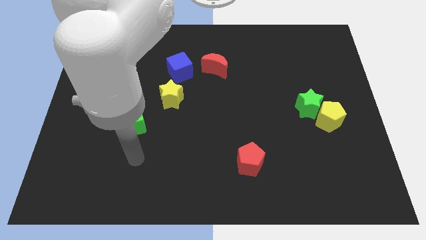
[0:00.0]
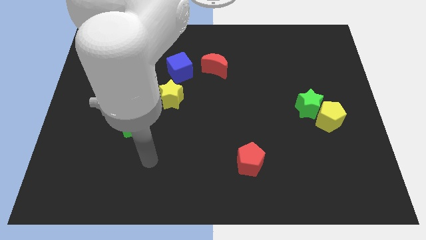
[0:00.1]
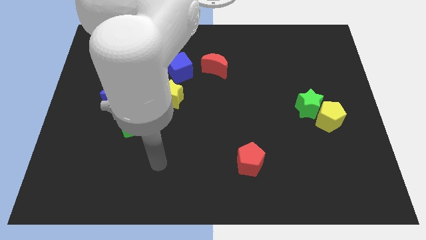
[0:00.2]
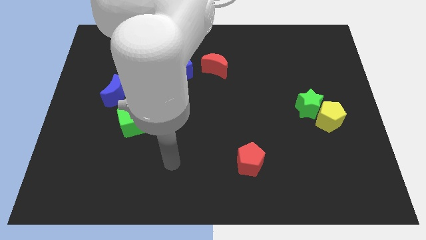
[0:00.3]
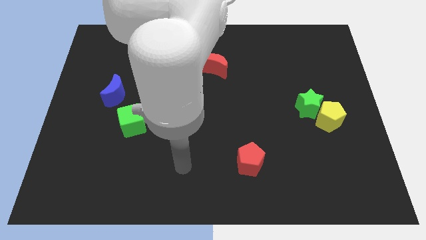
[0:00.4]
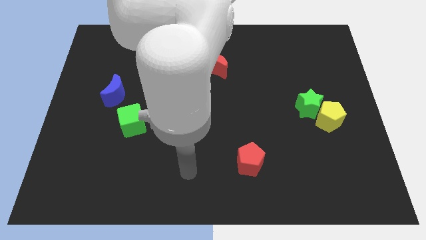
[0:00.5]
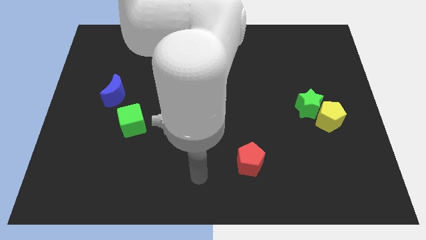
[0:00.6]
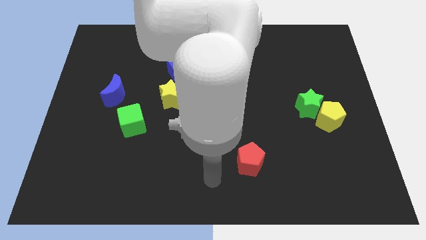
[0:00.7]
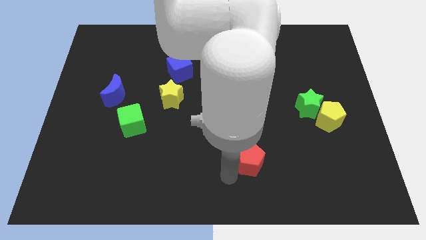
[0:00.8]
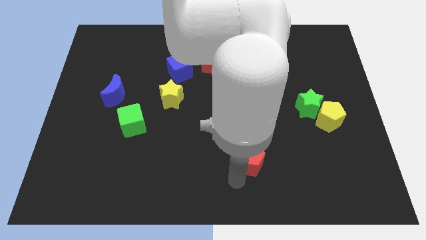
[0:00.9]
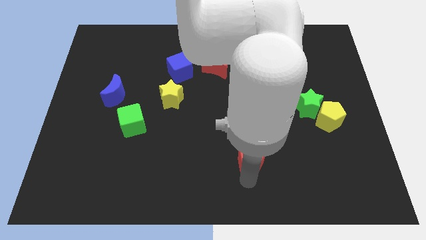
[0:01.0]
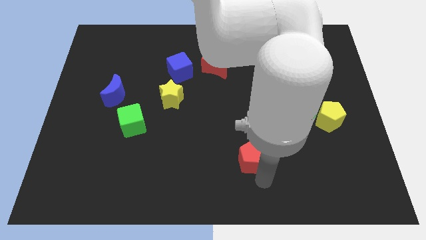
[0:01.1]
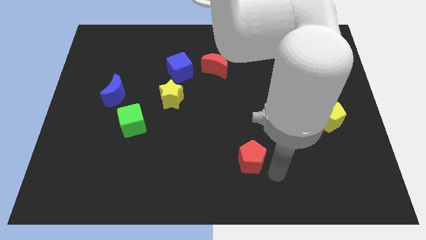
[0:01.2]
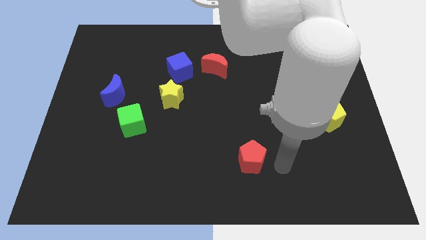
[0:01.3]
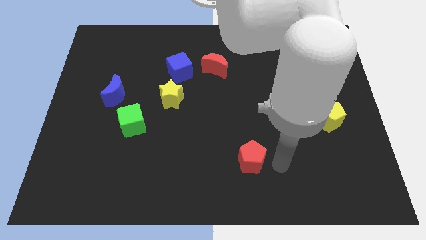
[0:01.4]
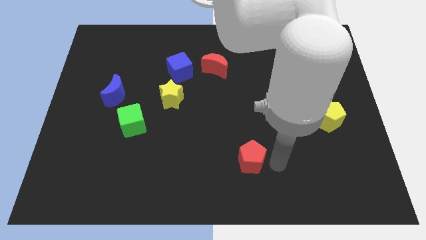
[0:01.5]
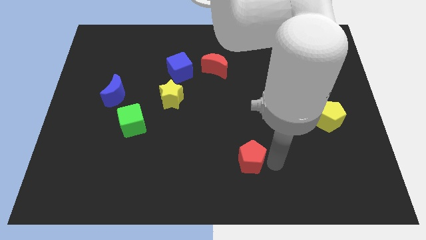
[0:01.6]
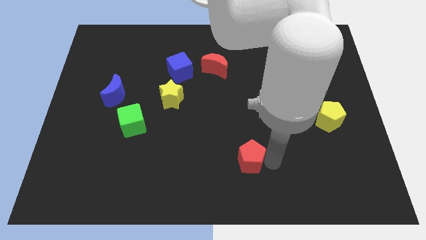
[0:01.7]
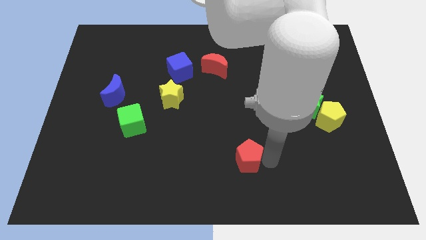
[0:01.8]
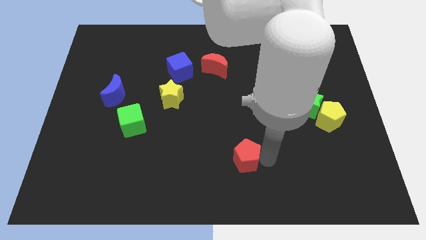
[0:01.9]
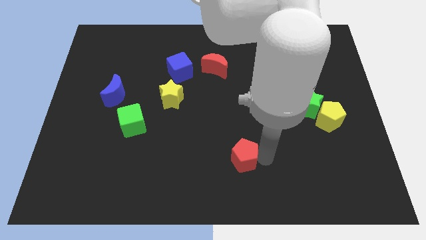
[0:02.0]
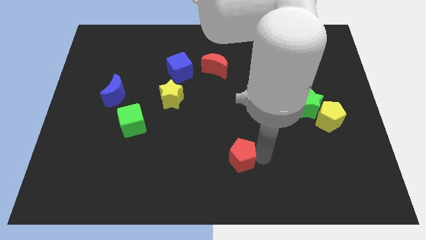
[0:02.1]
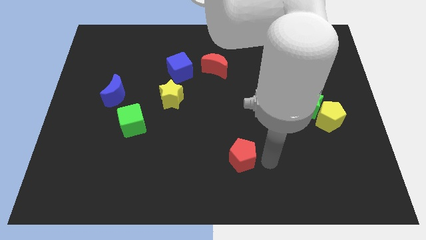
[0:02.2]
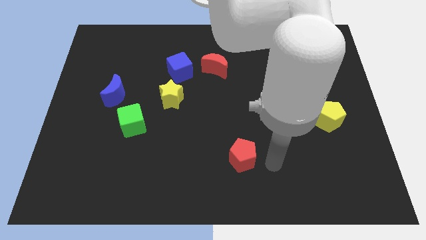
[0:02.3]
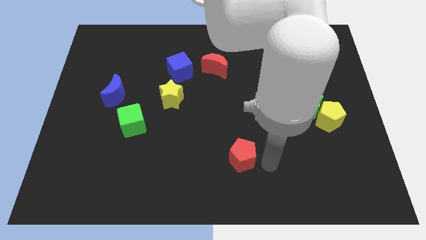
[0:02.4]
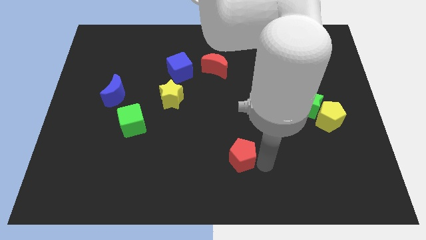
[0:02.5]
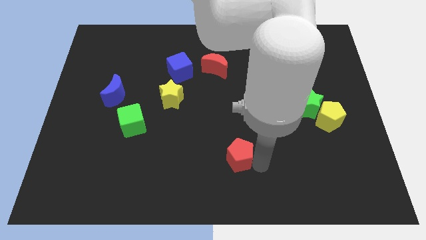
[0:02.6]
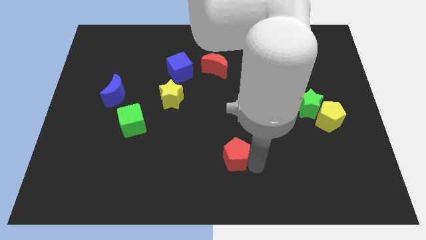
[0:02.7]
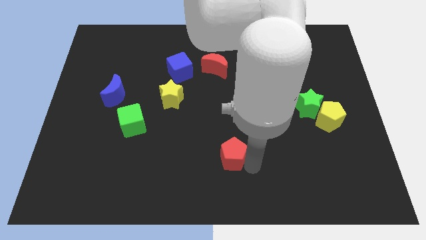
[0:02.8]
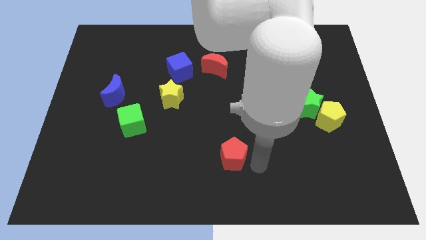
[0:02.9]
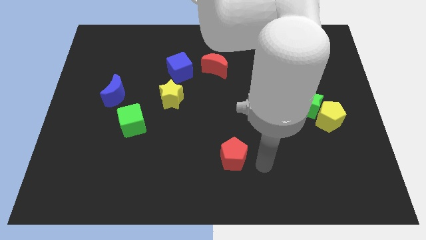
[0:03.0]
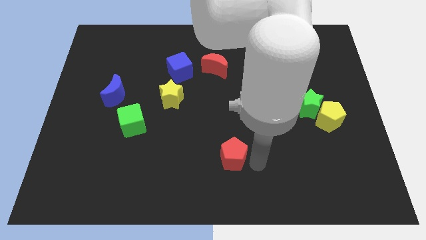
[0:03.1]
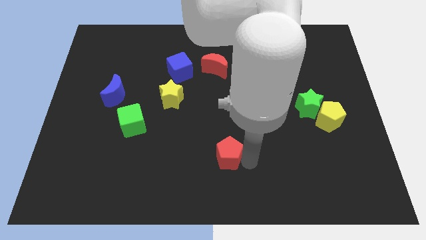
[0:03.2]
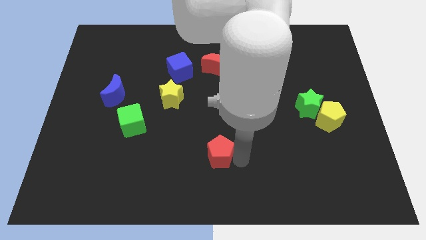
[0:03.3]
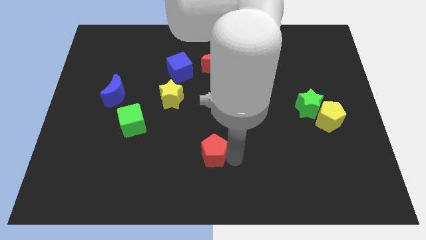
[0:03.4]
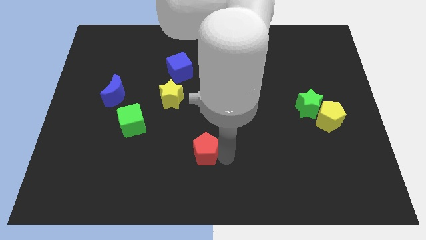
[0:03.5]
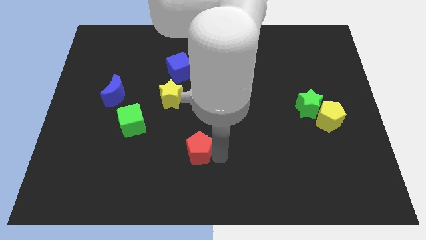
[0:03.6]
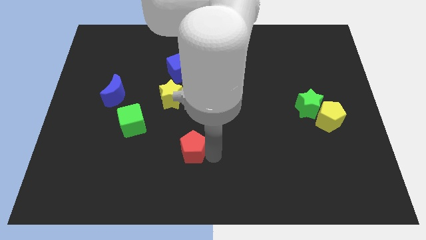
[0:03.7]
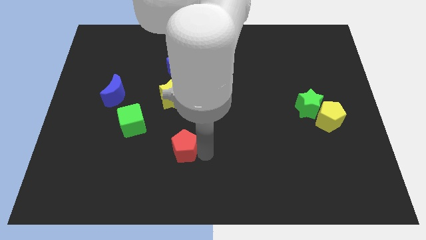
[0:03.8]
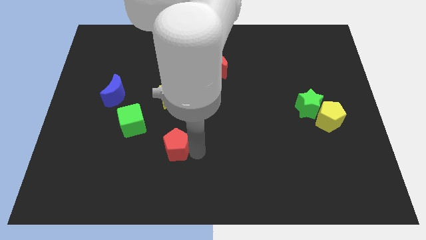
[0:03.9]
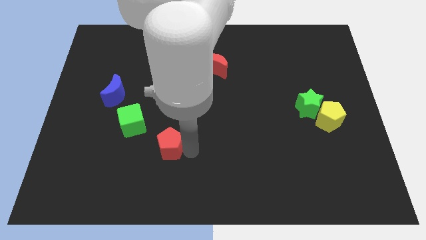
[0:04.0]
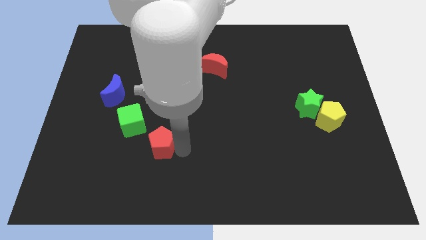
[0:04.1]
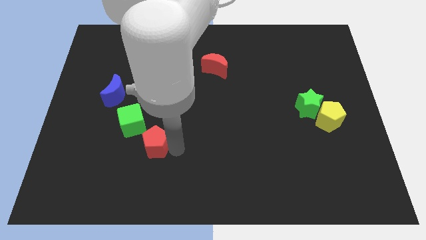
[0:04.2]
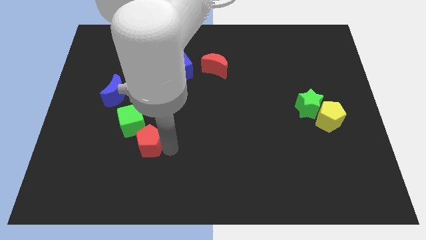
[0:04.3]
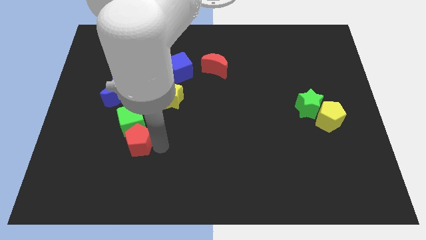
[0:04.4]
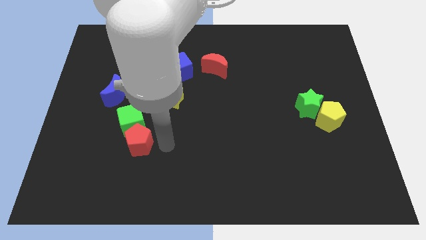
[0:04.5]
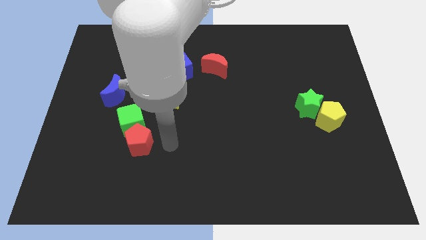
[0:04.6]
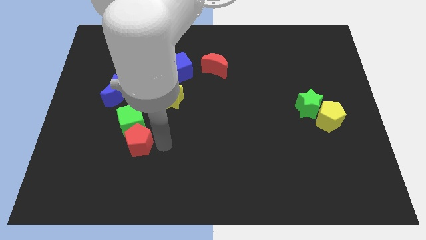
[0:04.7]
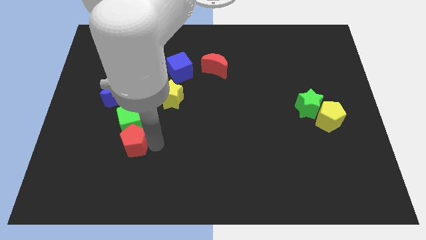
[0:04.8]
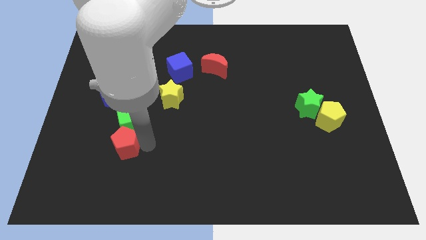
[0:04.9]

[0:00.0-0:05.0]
put the red pentagon diagonally down and to the left of the green cube

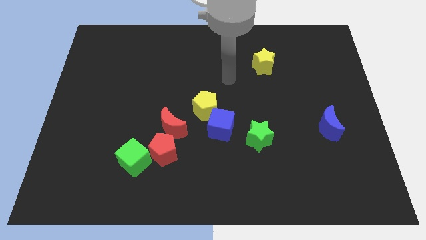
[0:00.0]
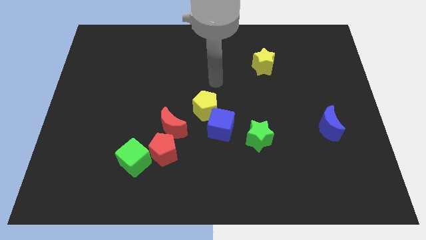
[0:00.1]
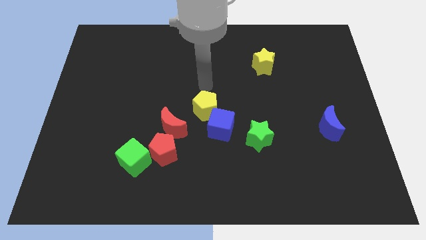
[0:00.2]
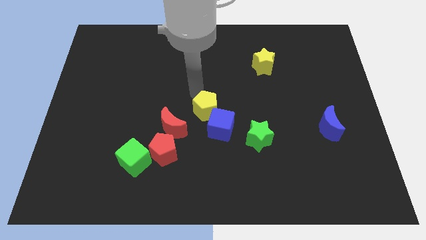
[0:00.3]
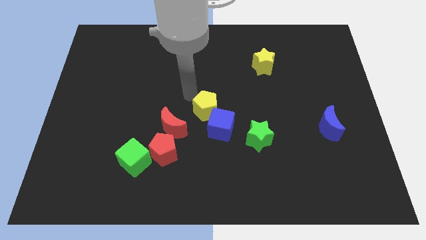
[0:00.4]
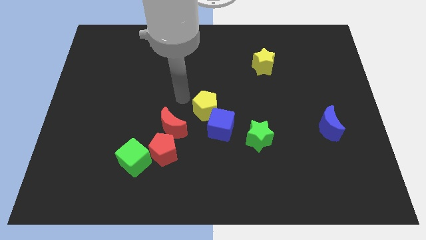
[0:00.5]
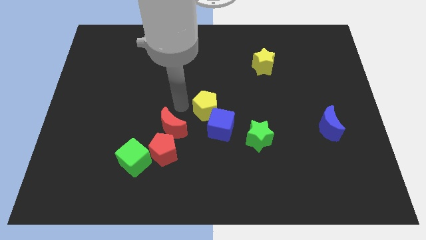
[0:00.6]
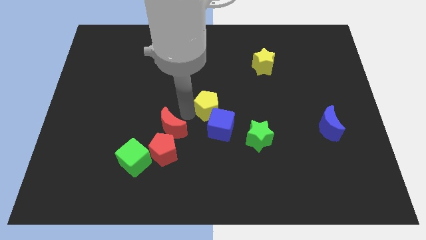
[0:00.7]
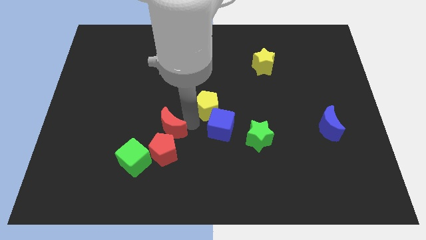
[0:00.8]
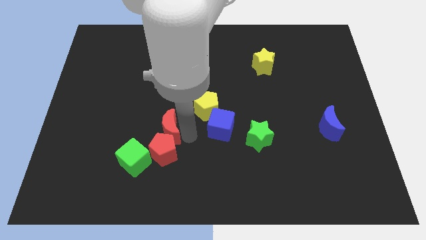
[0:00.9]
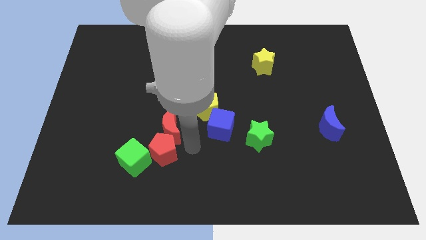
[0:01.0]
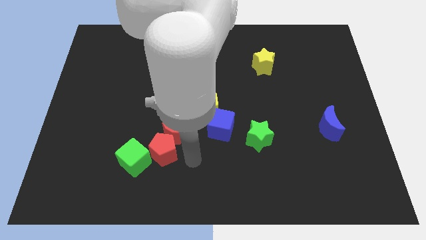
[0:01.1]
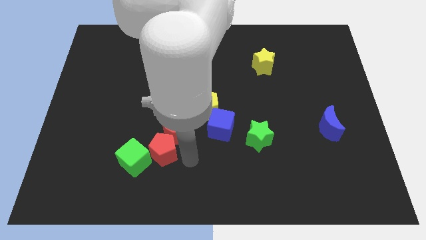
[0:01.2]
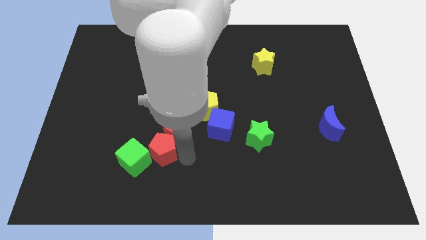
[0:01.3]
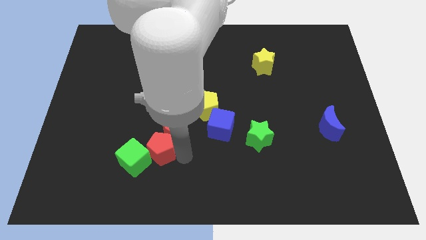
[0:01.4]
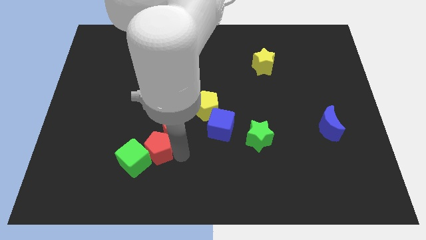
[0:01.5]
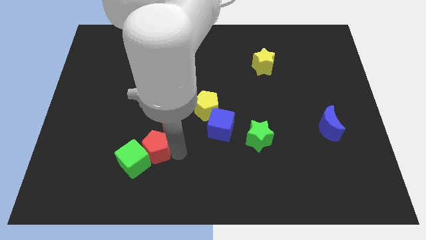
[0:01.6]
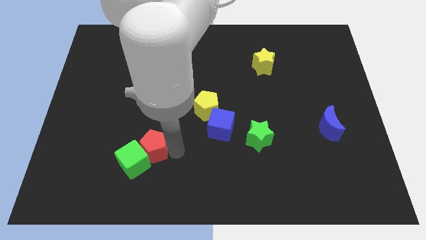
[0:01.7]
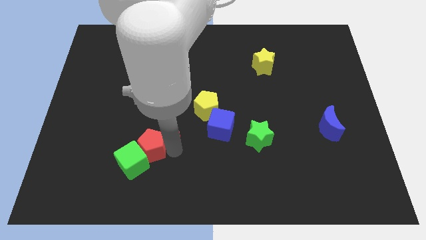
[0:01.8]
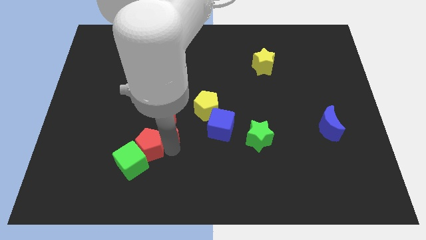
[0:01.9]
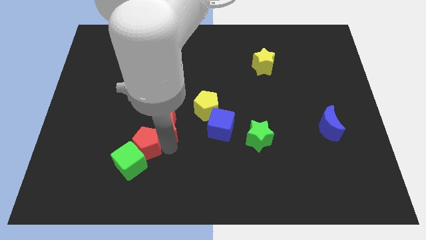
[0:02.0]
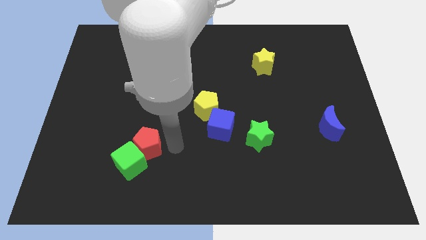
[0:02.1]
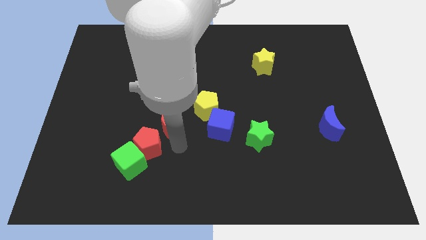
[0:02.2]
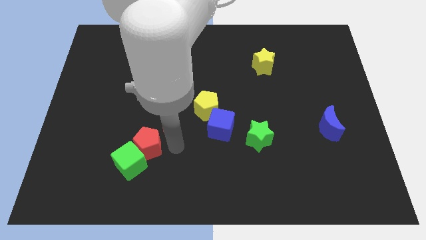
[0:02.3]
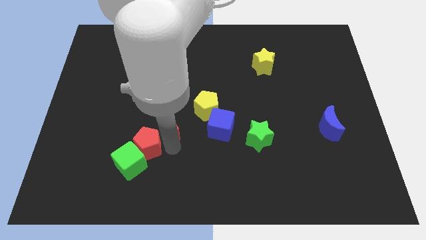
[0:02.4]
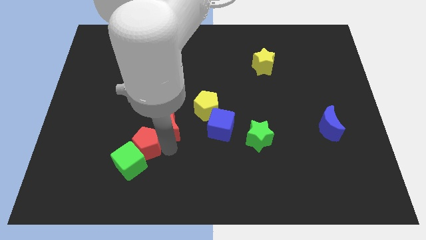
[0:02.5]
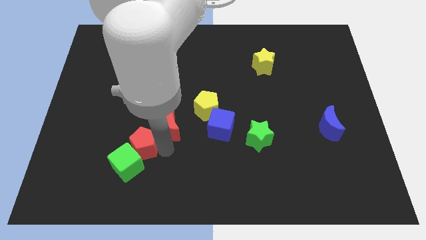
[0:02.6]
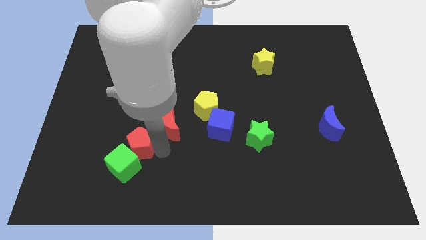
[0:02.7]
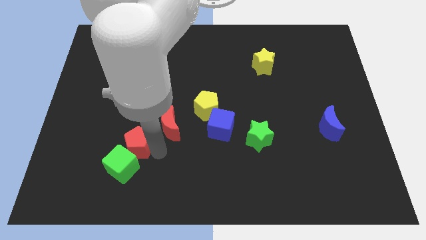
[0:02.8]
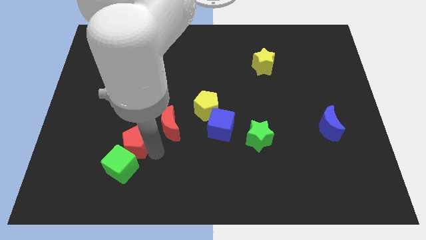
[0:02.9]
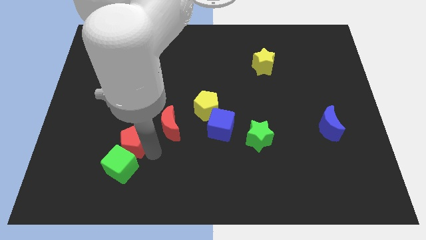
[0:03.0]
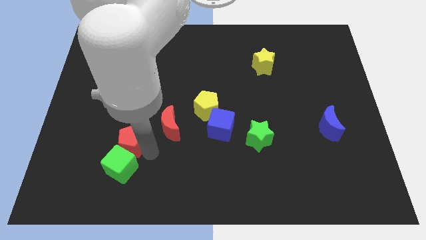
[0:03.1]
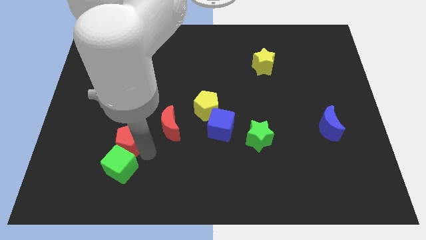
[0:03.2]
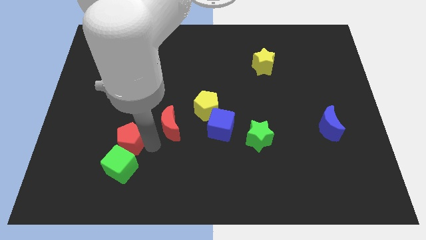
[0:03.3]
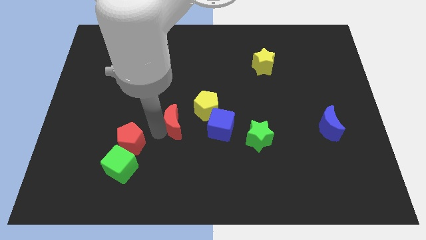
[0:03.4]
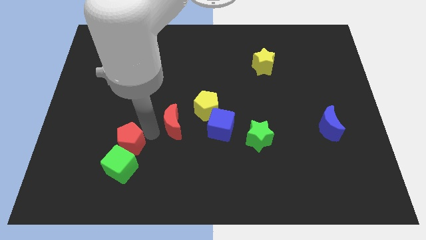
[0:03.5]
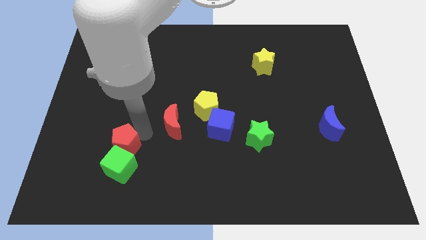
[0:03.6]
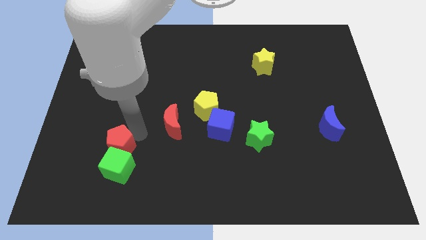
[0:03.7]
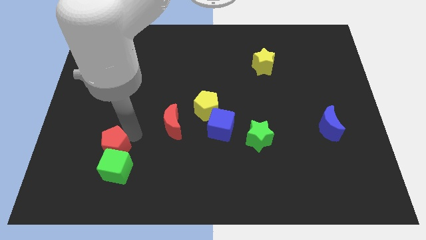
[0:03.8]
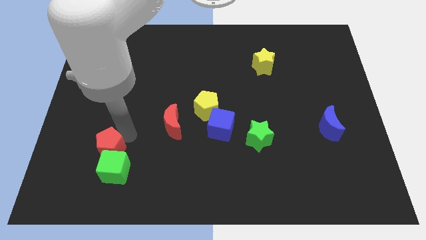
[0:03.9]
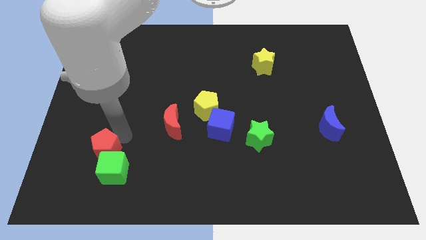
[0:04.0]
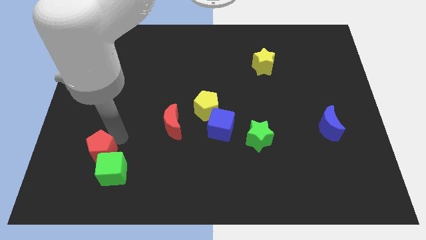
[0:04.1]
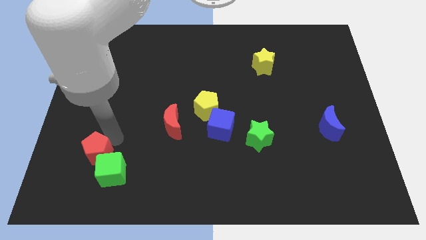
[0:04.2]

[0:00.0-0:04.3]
put the red pentagon to the left of the green cube
